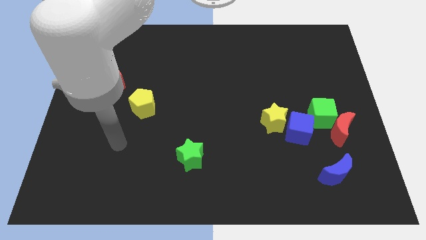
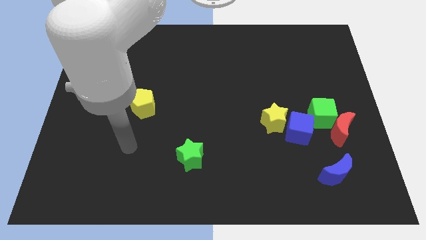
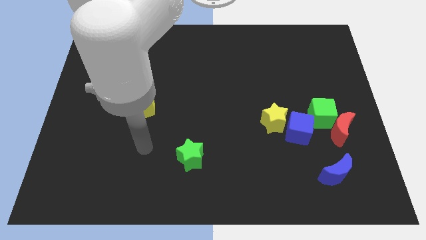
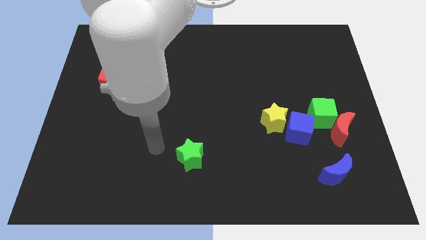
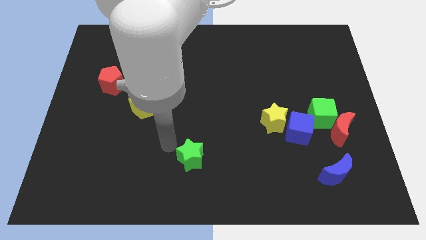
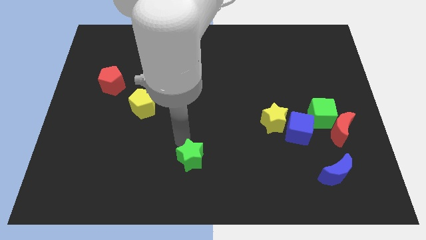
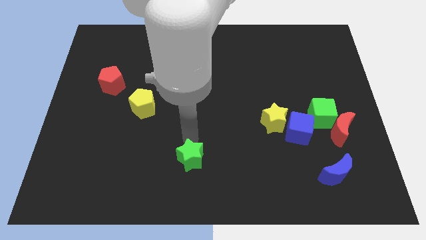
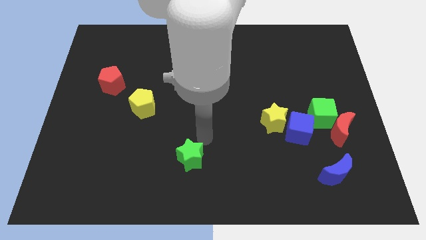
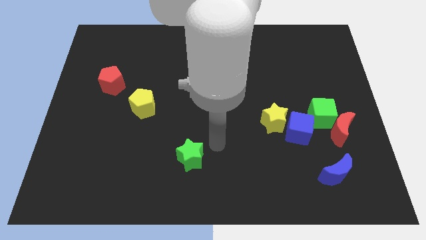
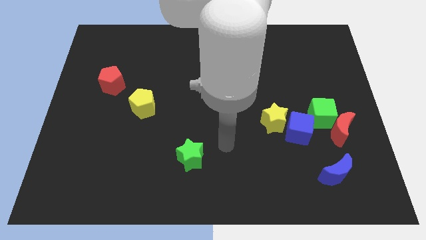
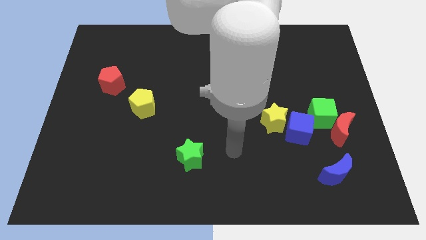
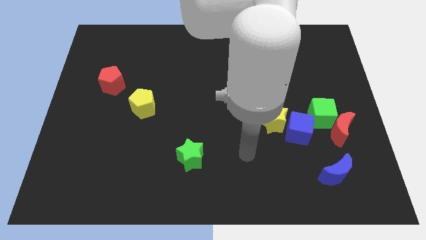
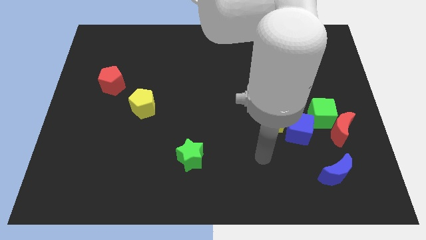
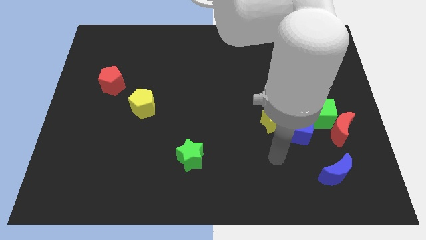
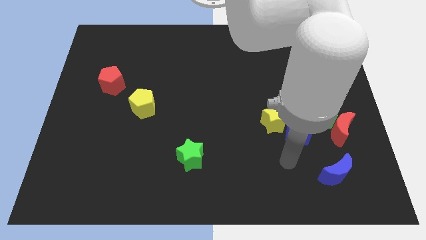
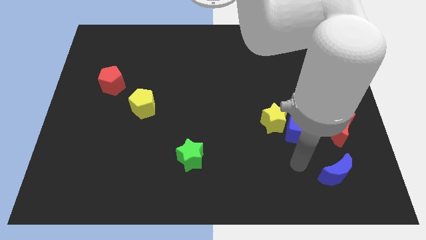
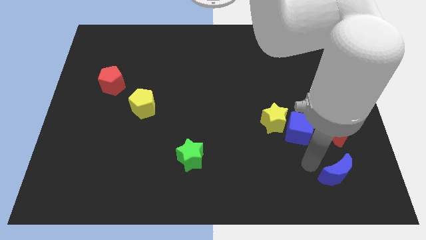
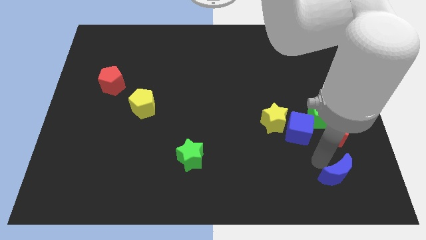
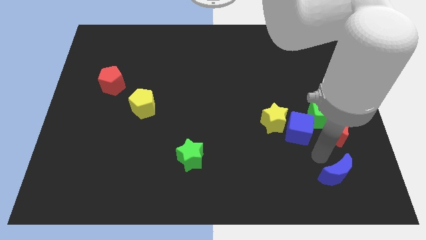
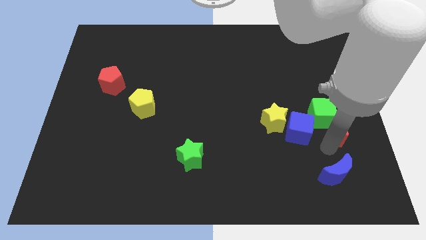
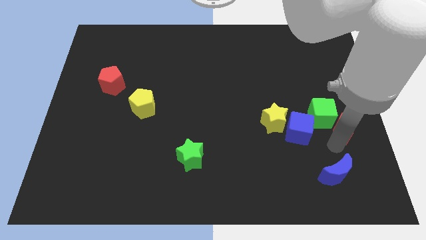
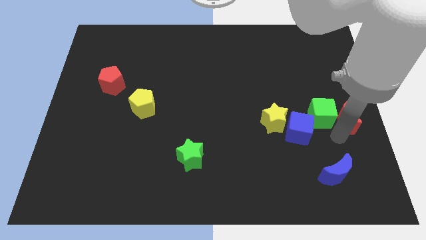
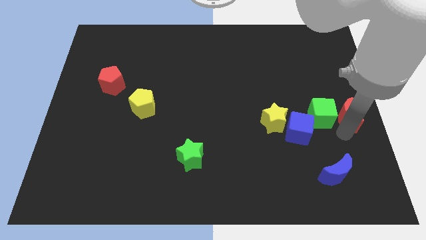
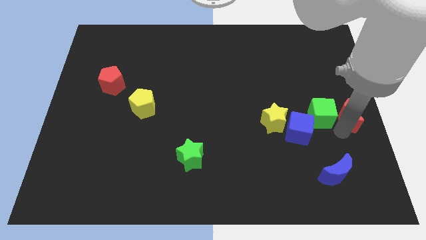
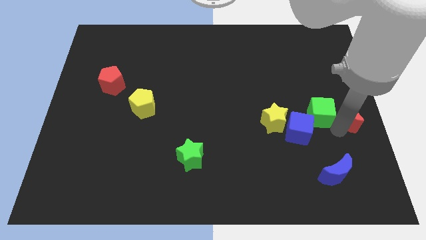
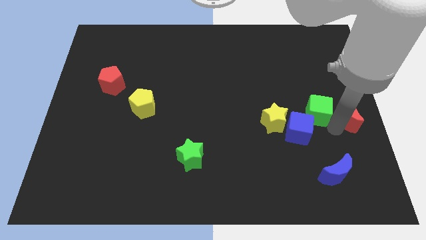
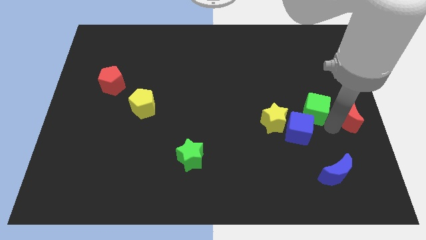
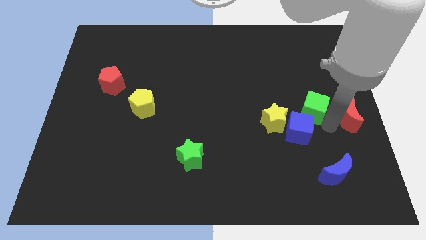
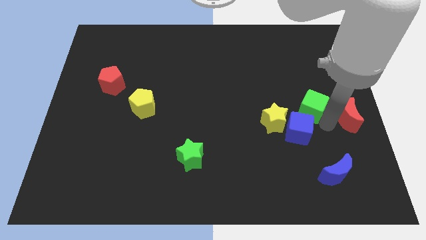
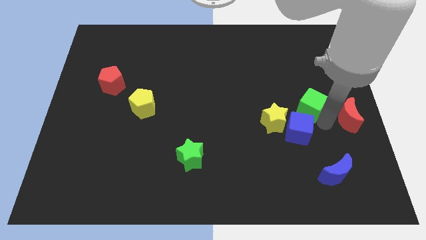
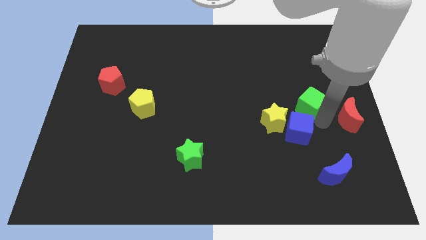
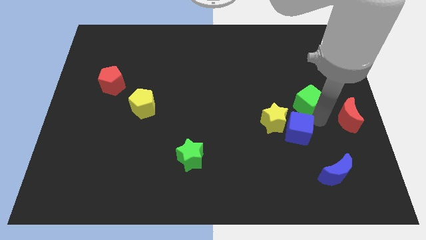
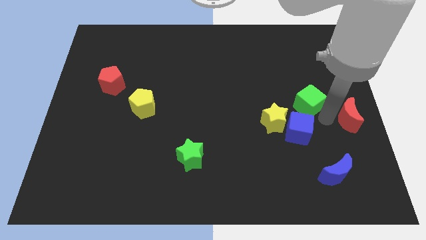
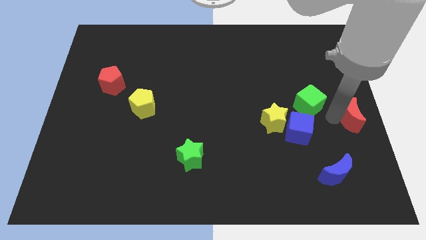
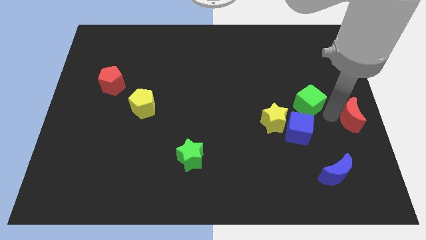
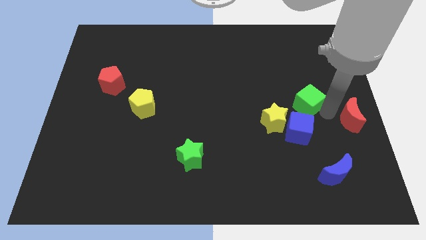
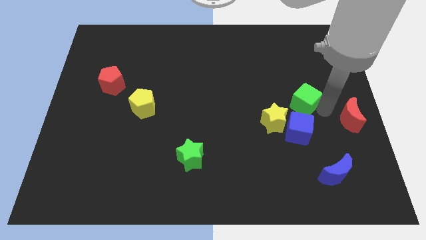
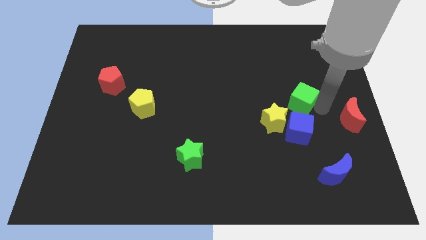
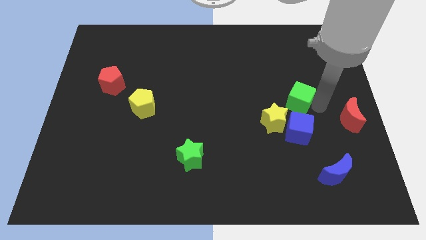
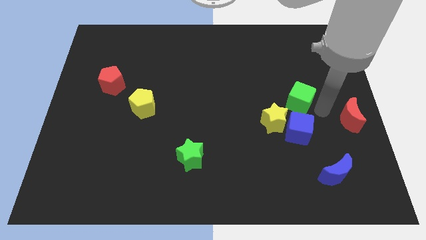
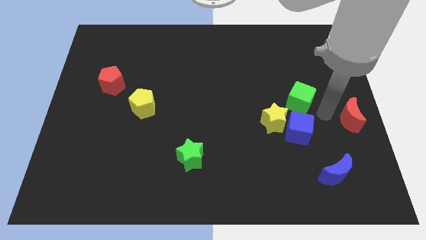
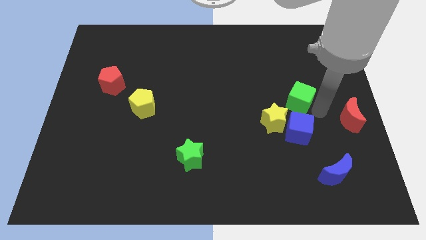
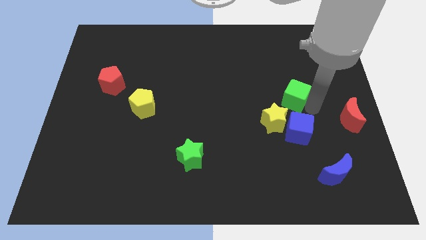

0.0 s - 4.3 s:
slightly move the green cube diagonally up and to the left

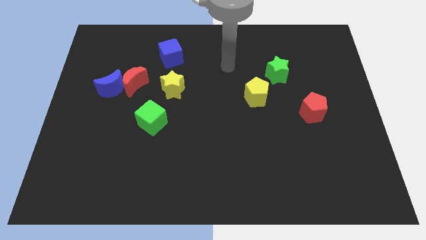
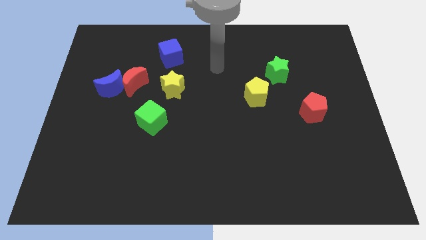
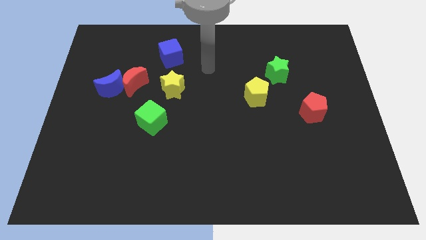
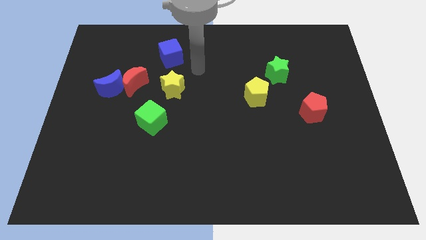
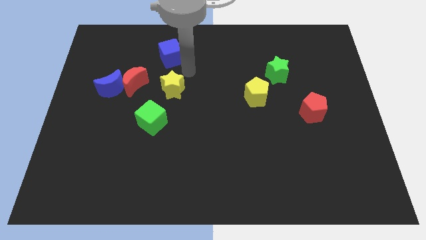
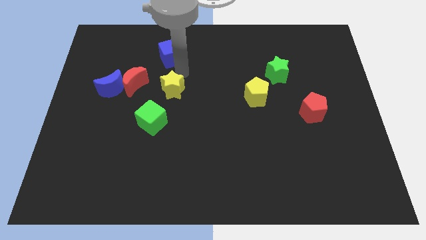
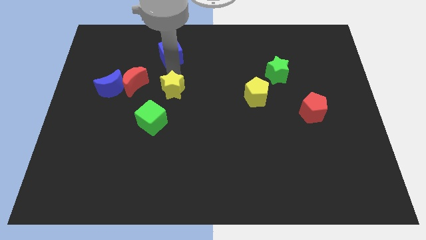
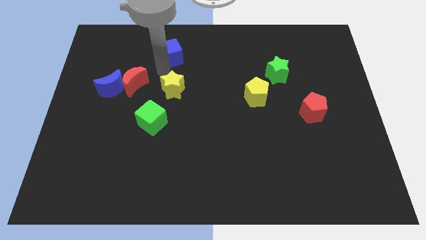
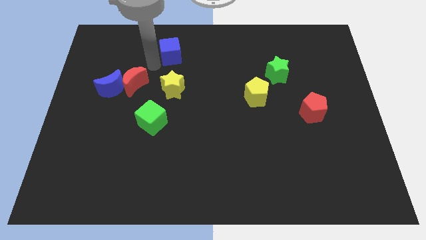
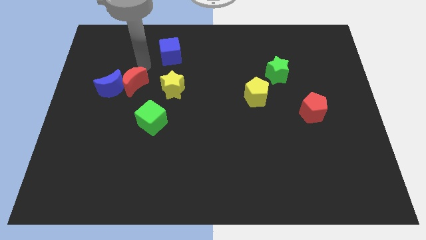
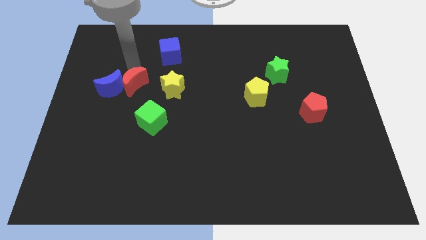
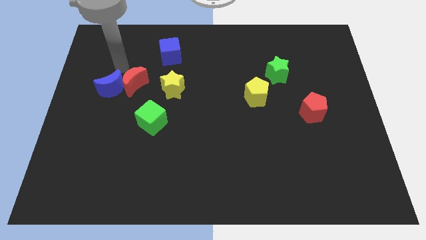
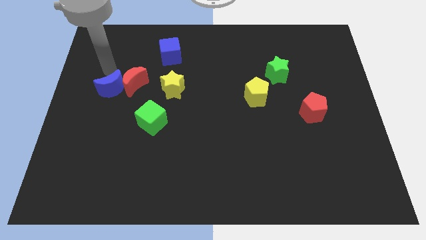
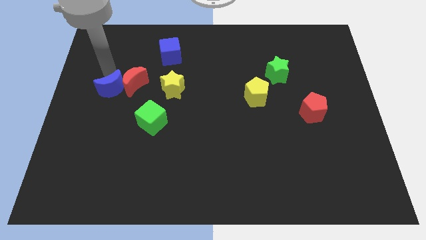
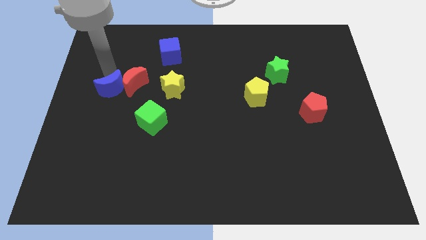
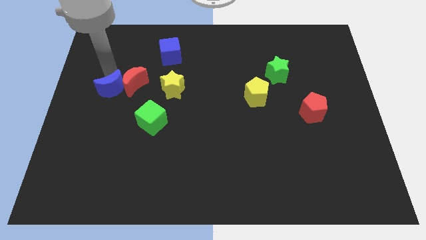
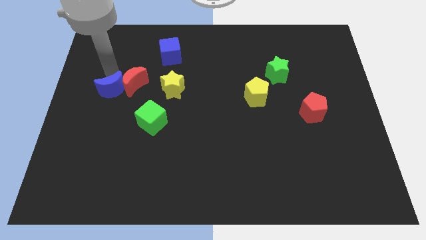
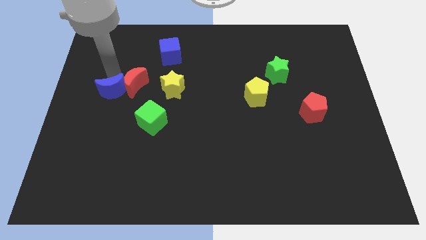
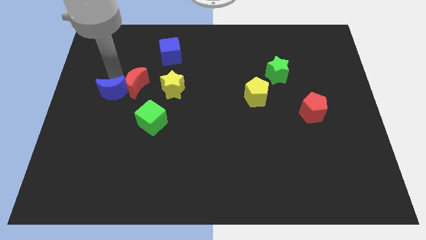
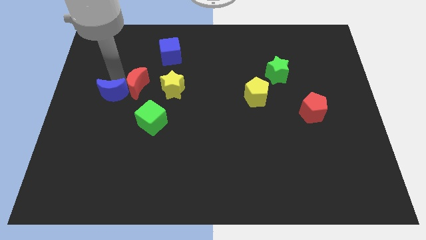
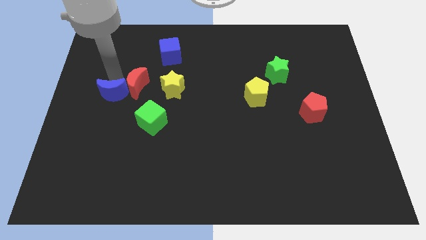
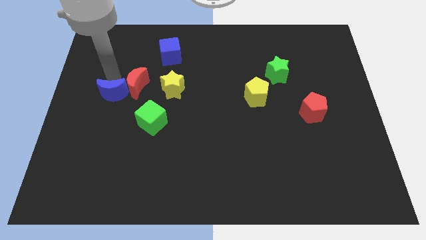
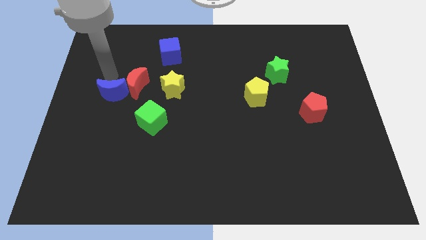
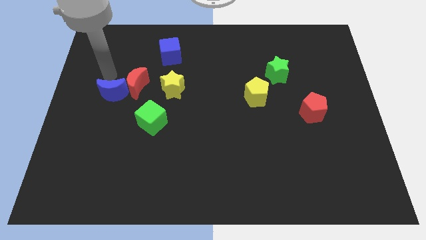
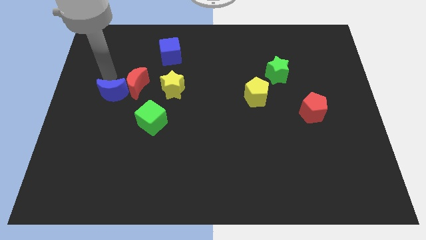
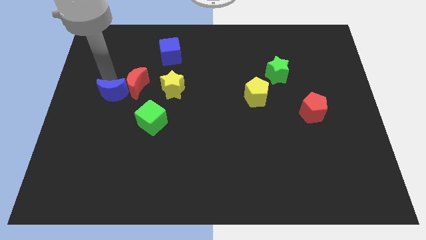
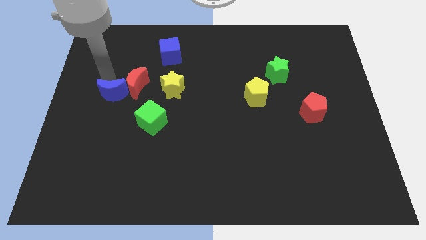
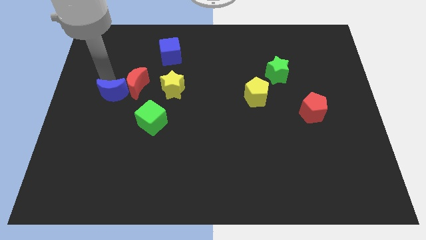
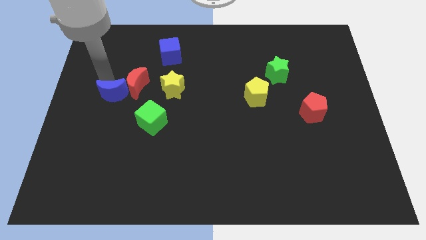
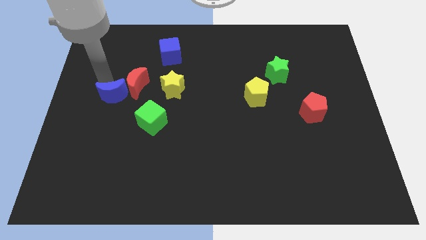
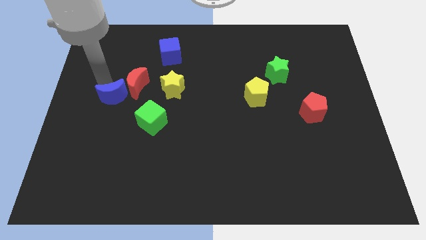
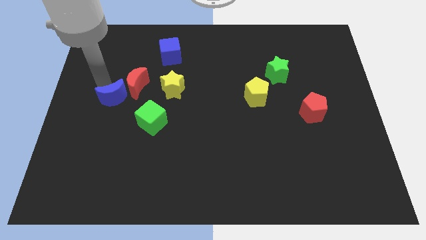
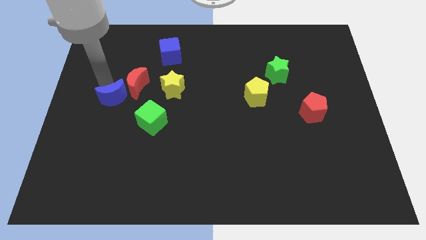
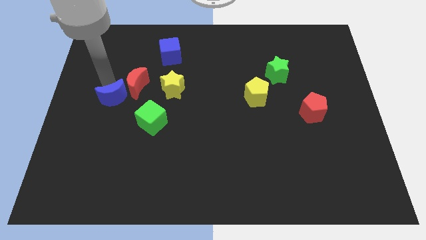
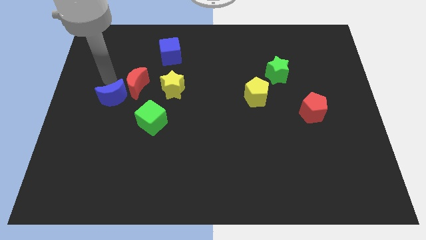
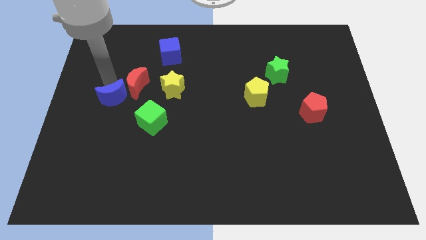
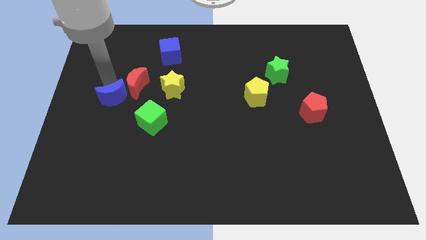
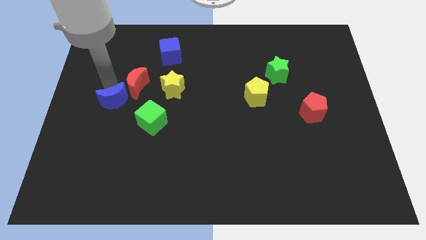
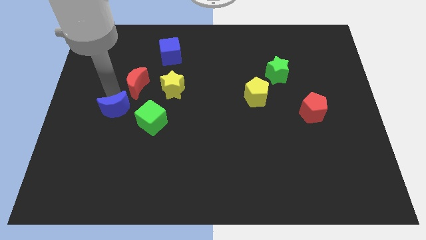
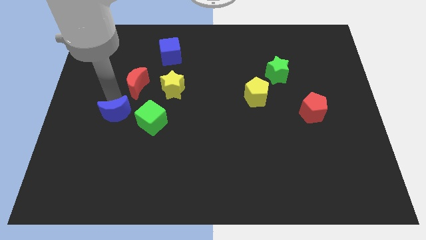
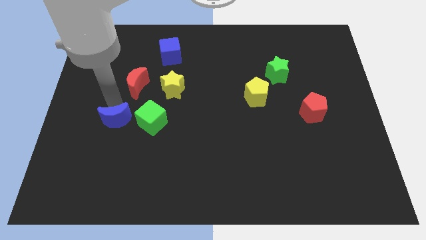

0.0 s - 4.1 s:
slightly push the blue moon down and right
